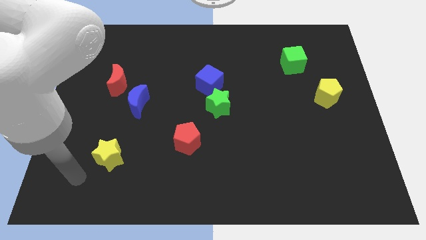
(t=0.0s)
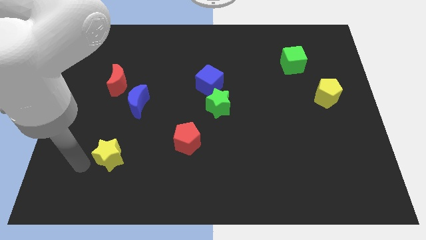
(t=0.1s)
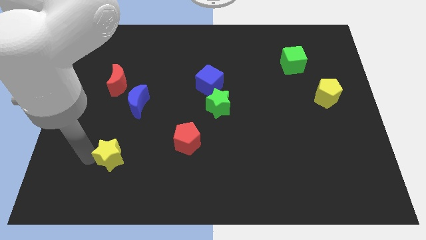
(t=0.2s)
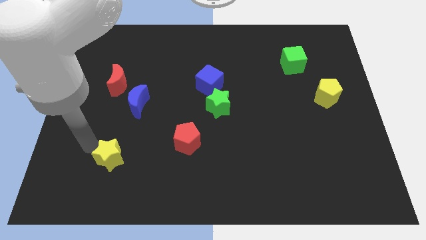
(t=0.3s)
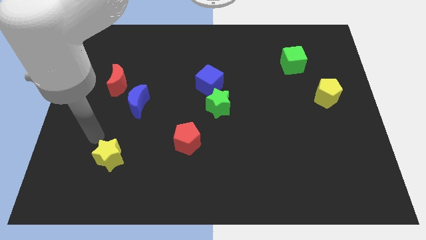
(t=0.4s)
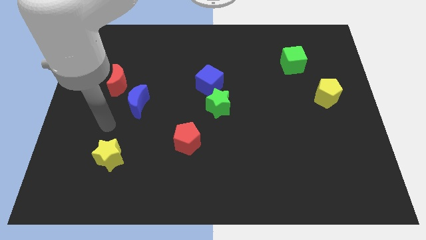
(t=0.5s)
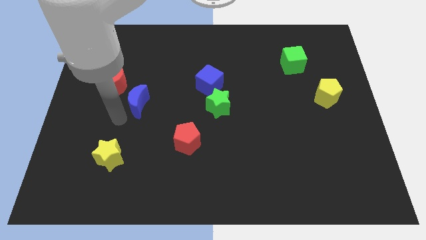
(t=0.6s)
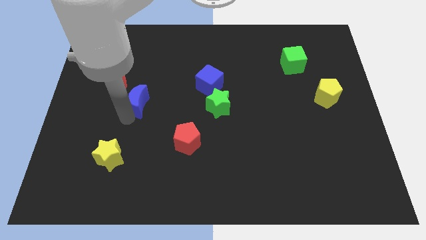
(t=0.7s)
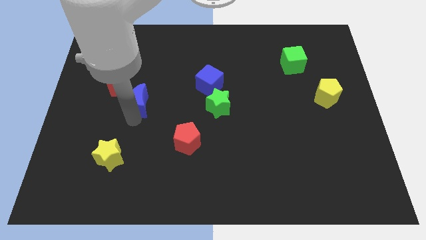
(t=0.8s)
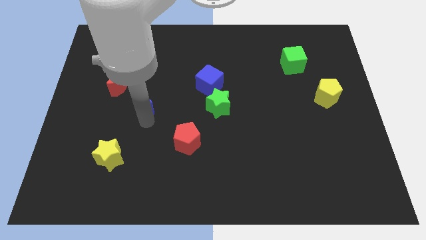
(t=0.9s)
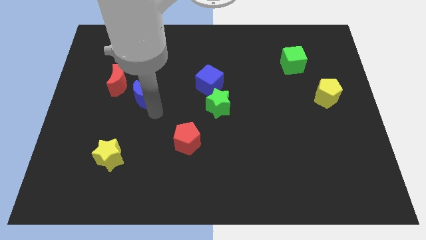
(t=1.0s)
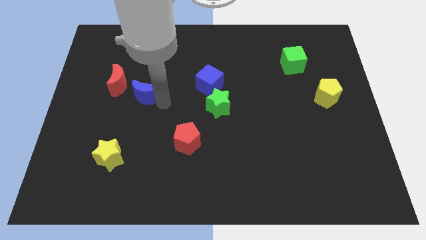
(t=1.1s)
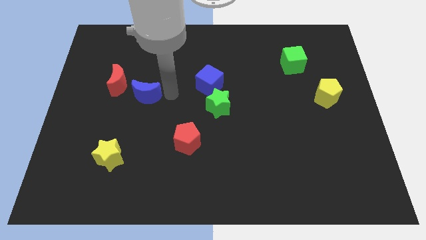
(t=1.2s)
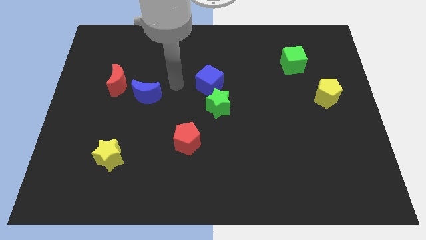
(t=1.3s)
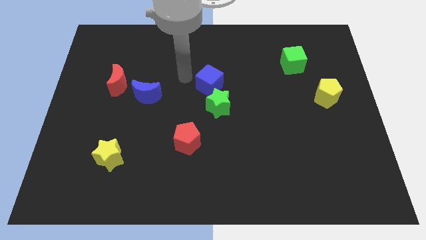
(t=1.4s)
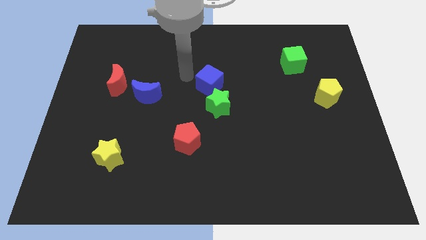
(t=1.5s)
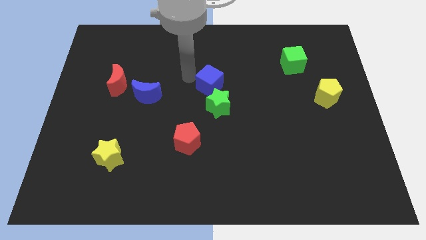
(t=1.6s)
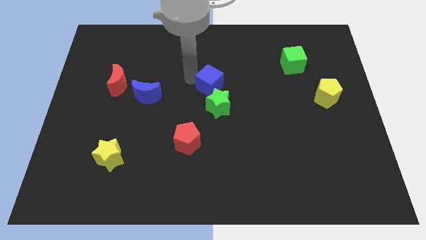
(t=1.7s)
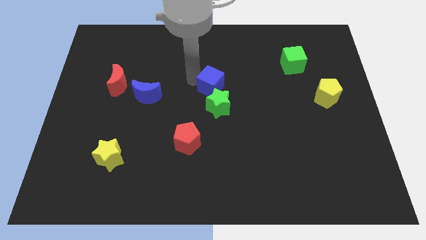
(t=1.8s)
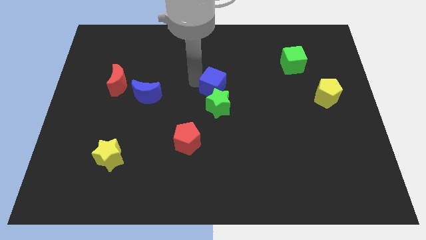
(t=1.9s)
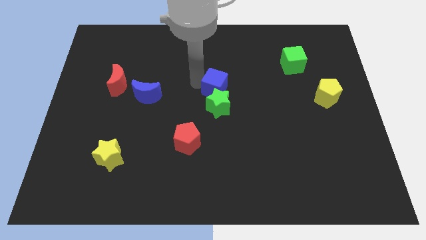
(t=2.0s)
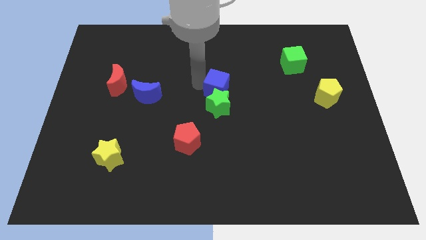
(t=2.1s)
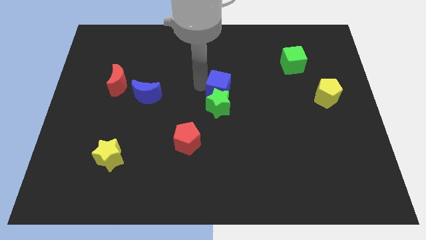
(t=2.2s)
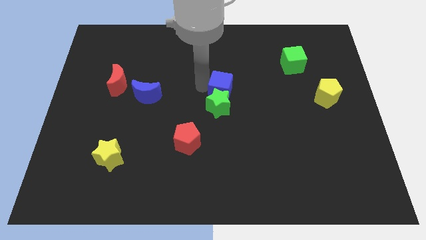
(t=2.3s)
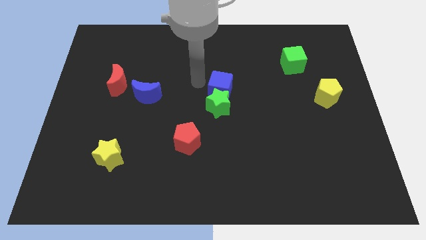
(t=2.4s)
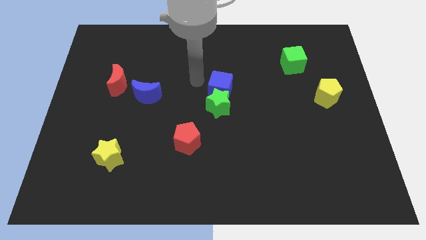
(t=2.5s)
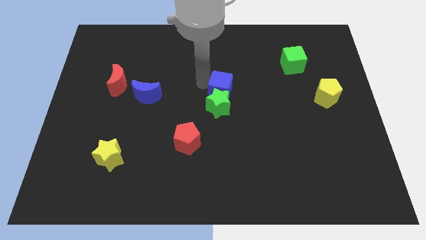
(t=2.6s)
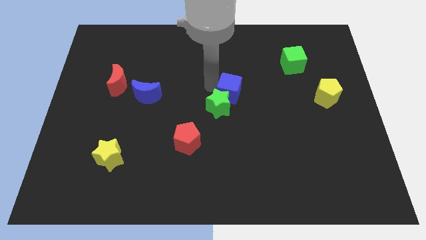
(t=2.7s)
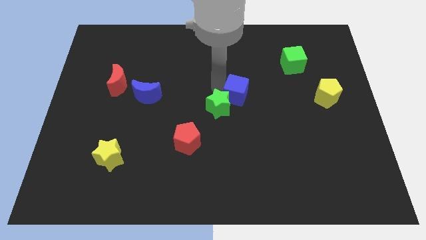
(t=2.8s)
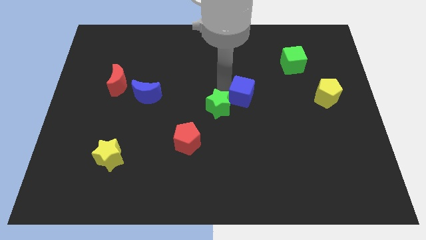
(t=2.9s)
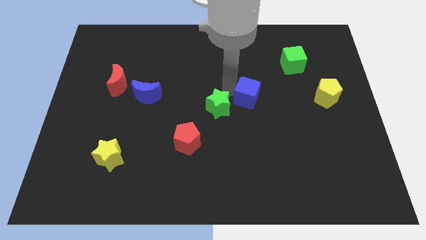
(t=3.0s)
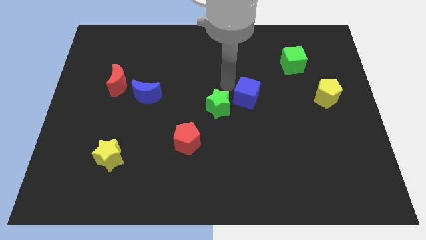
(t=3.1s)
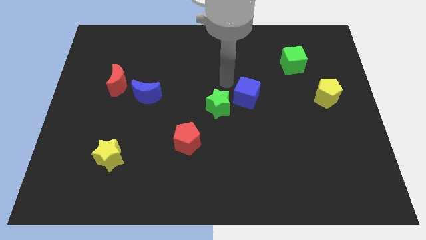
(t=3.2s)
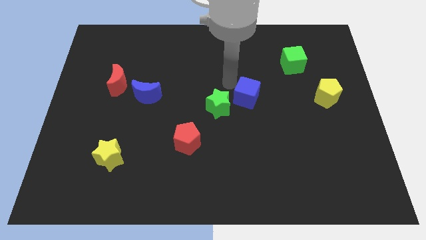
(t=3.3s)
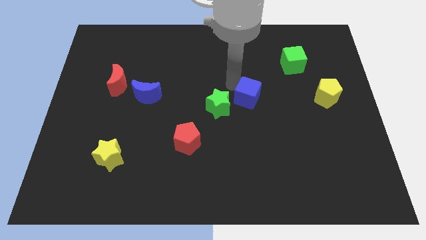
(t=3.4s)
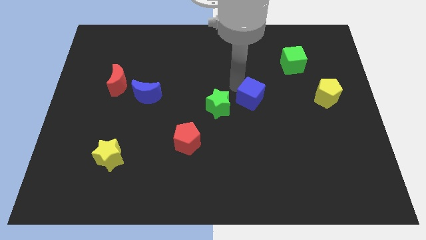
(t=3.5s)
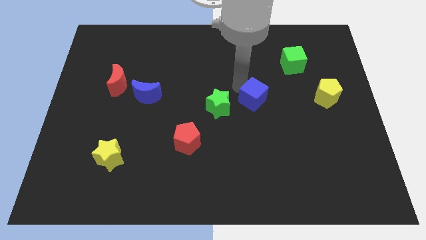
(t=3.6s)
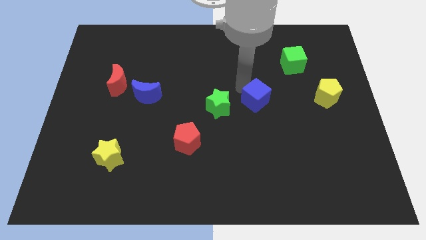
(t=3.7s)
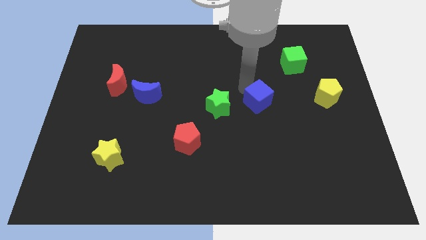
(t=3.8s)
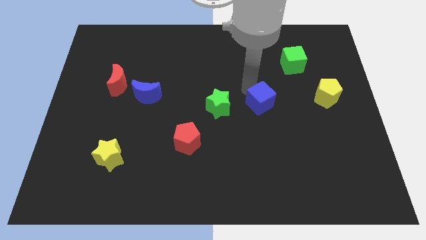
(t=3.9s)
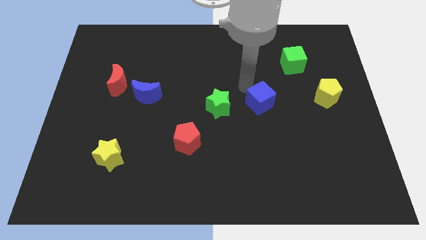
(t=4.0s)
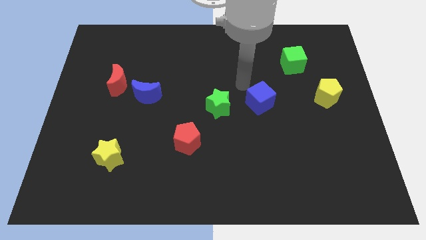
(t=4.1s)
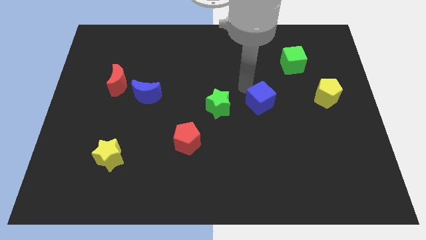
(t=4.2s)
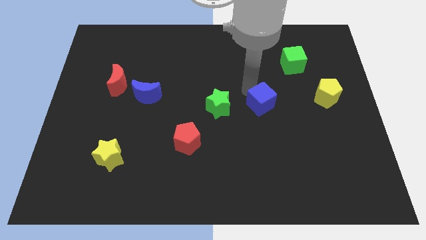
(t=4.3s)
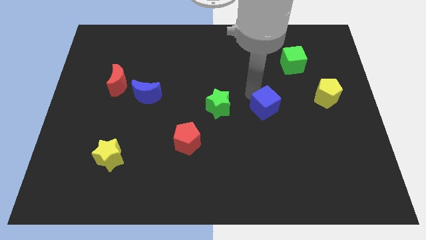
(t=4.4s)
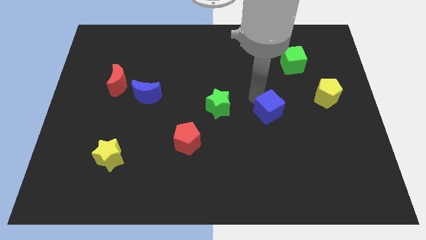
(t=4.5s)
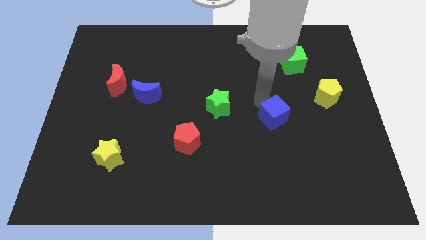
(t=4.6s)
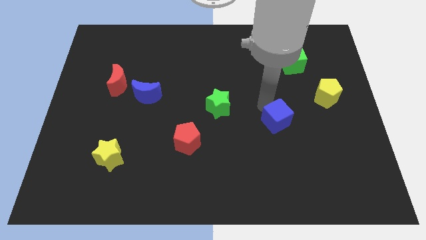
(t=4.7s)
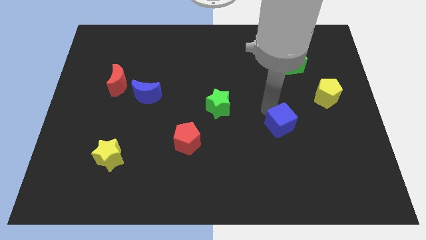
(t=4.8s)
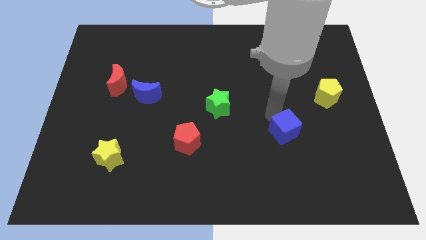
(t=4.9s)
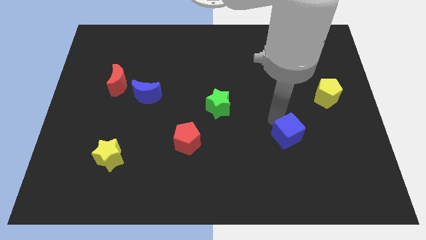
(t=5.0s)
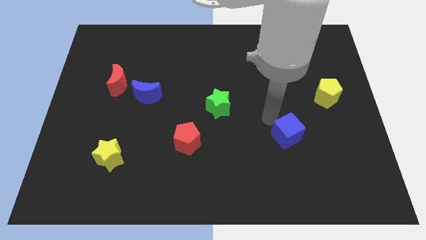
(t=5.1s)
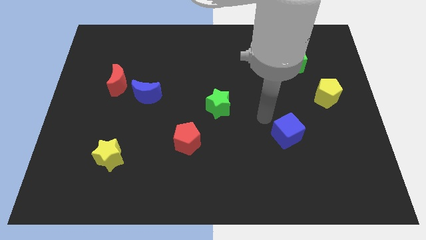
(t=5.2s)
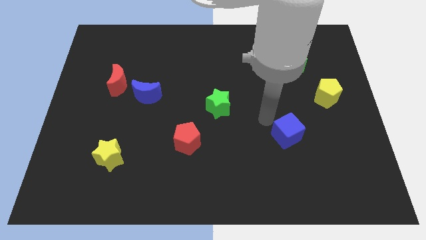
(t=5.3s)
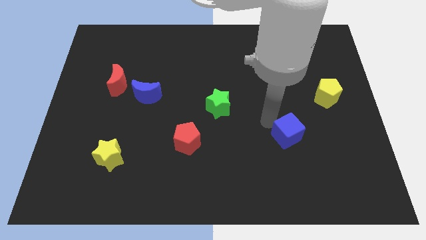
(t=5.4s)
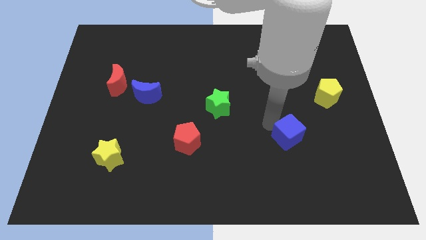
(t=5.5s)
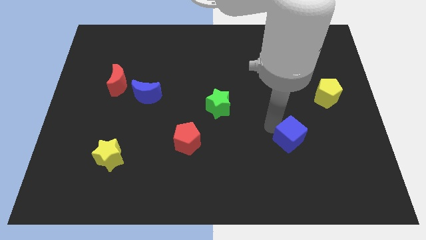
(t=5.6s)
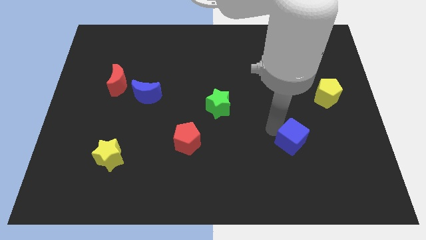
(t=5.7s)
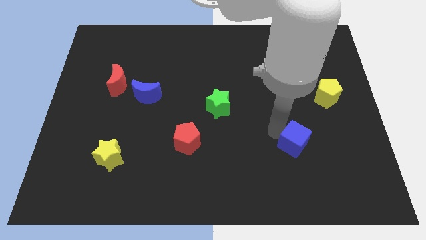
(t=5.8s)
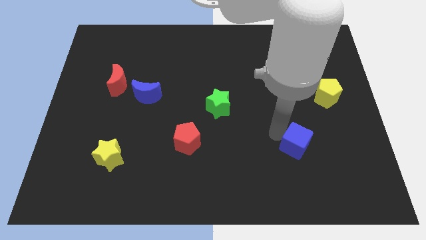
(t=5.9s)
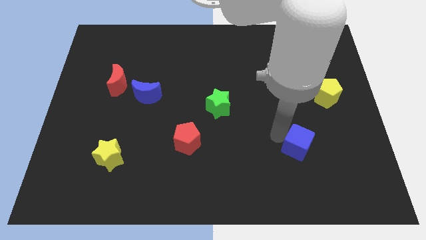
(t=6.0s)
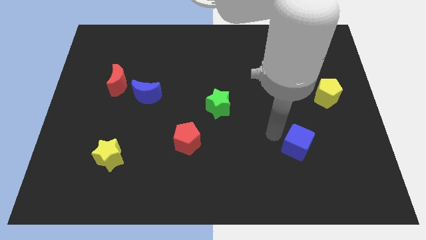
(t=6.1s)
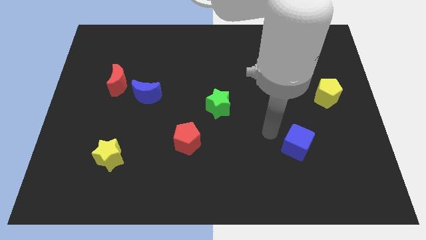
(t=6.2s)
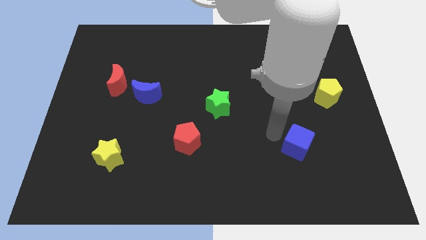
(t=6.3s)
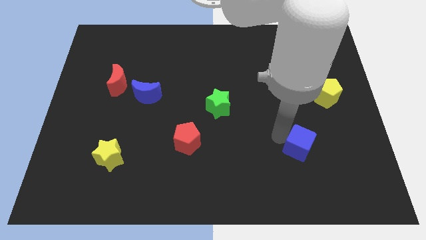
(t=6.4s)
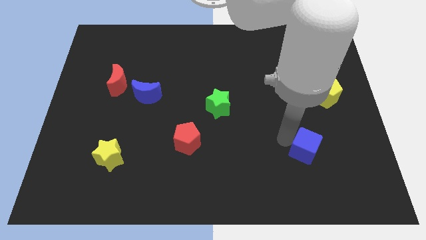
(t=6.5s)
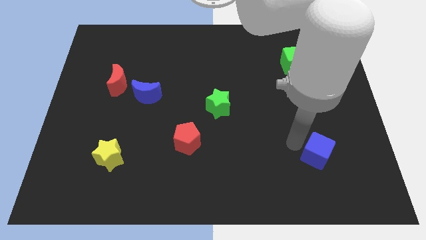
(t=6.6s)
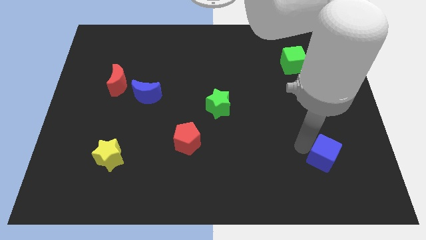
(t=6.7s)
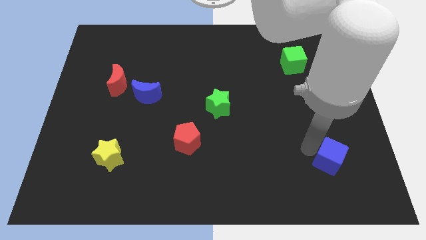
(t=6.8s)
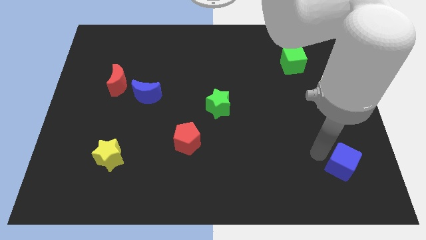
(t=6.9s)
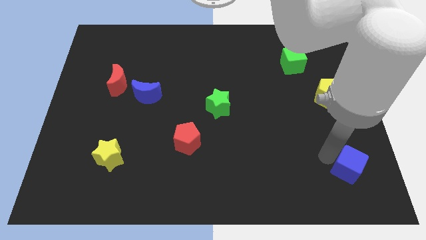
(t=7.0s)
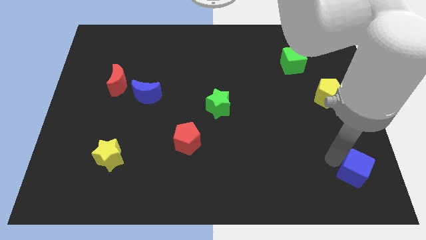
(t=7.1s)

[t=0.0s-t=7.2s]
move the blue cube to the bottom right
